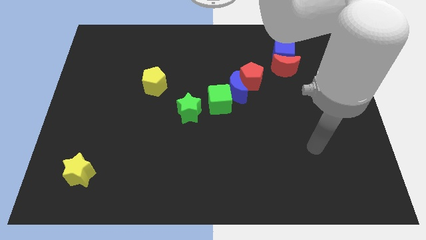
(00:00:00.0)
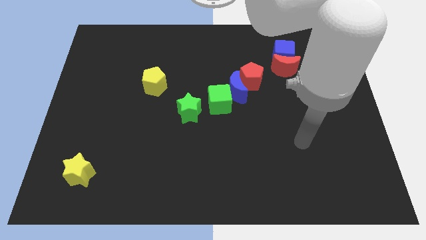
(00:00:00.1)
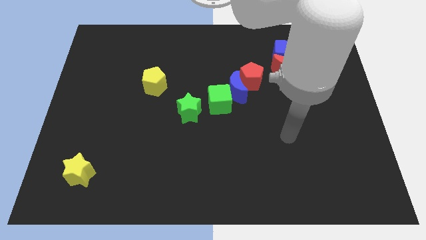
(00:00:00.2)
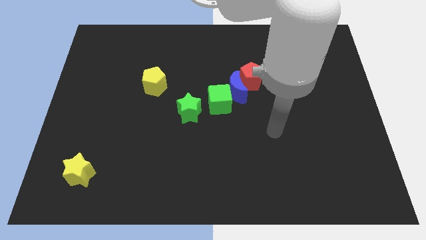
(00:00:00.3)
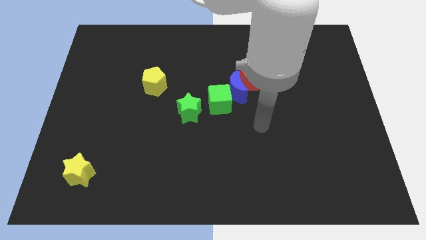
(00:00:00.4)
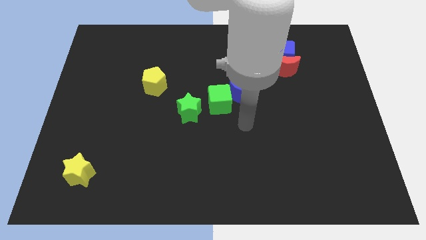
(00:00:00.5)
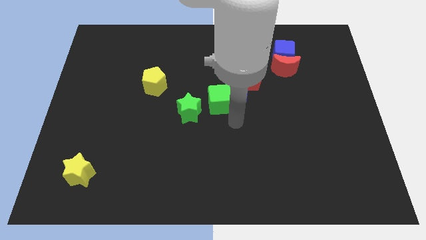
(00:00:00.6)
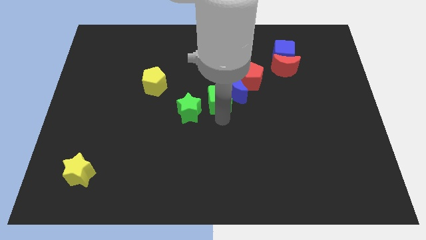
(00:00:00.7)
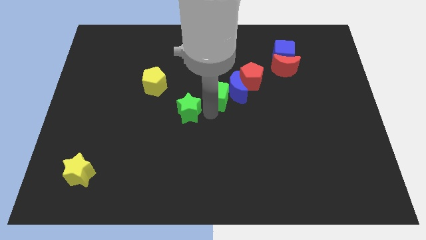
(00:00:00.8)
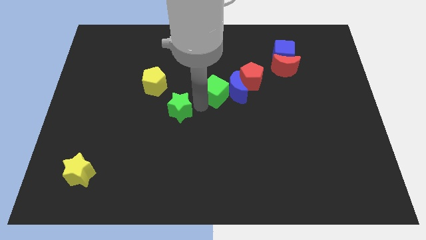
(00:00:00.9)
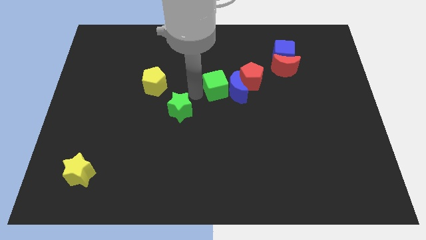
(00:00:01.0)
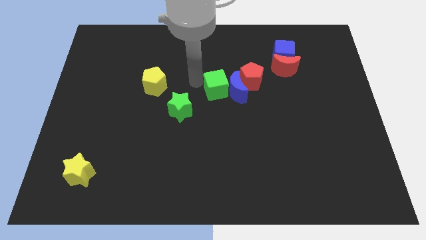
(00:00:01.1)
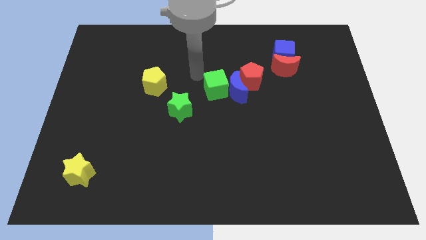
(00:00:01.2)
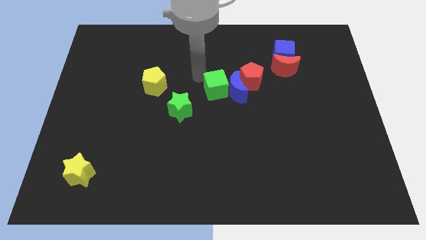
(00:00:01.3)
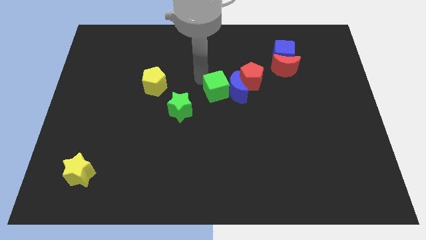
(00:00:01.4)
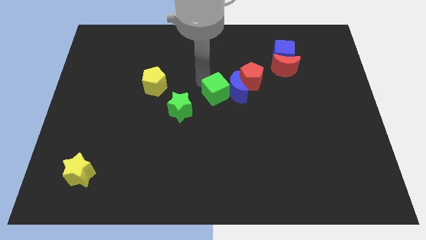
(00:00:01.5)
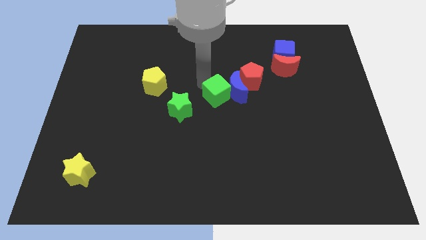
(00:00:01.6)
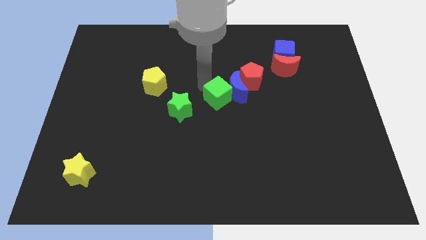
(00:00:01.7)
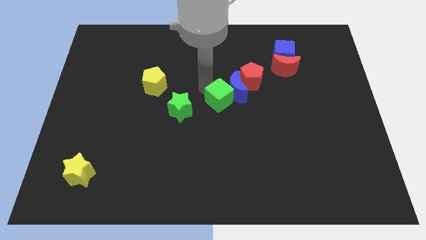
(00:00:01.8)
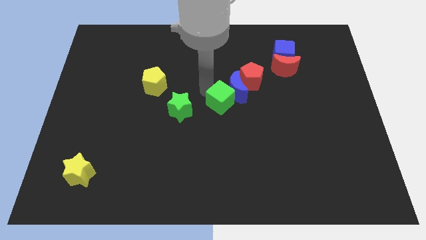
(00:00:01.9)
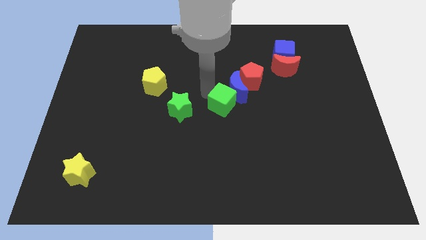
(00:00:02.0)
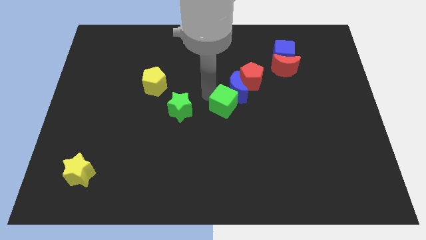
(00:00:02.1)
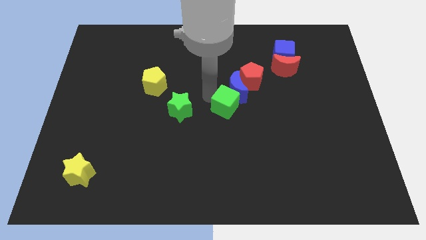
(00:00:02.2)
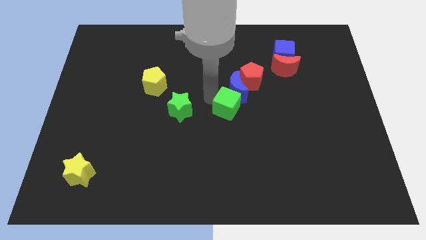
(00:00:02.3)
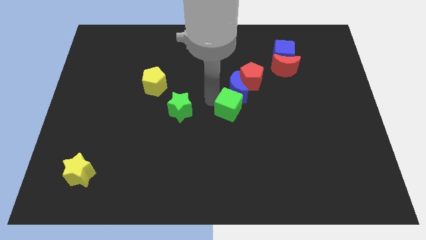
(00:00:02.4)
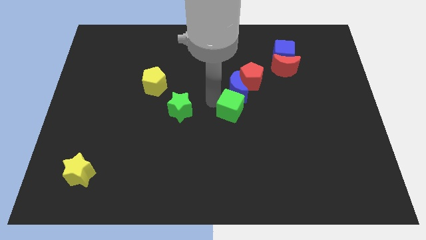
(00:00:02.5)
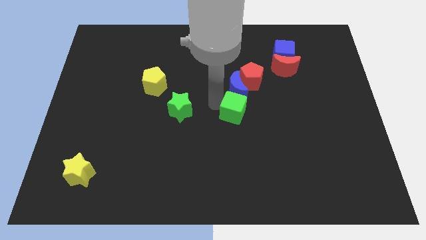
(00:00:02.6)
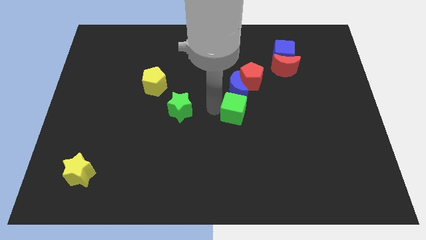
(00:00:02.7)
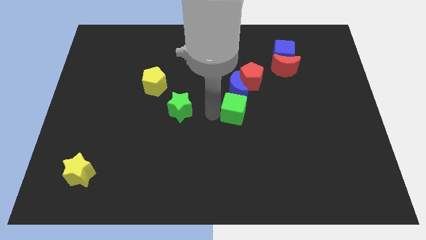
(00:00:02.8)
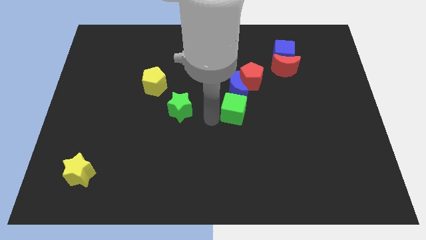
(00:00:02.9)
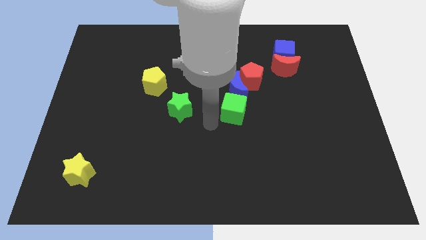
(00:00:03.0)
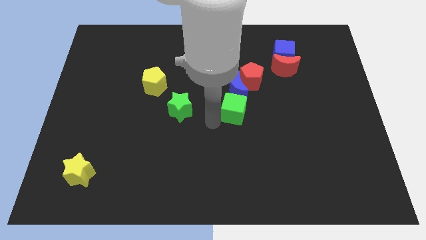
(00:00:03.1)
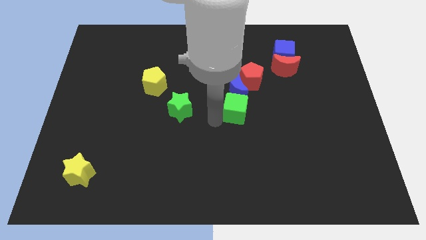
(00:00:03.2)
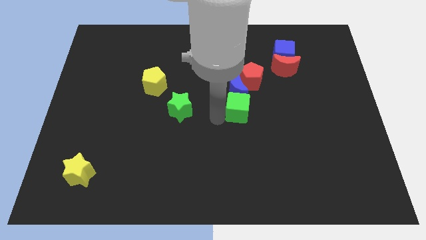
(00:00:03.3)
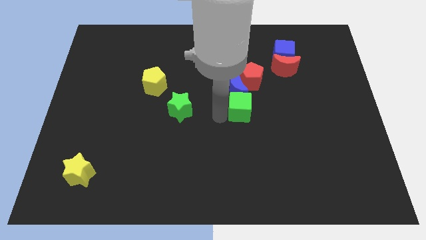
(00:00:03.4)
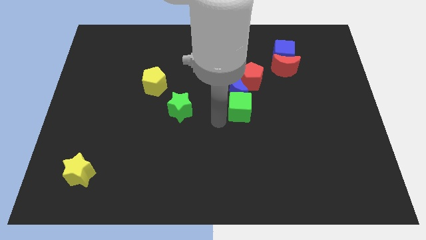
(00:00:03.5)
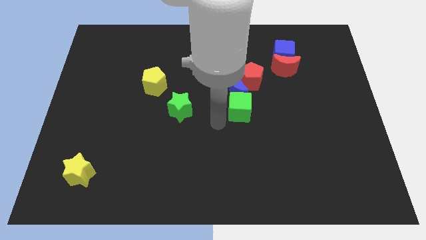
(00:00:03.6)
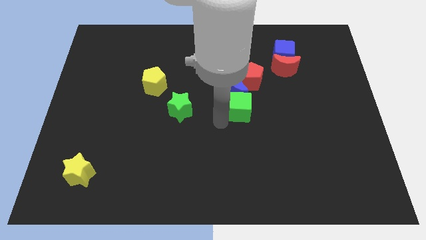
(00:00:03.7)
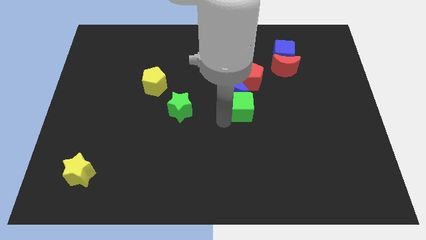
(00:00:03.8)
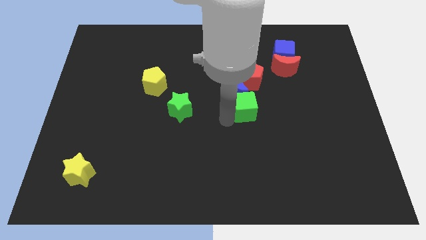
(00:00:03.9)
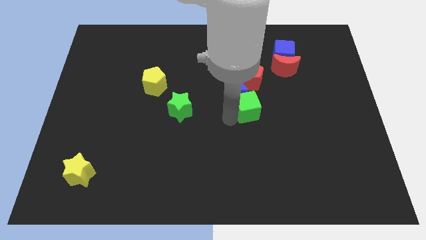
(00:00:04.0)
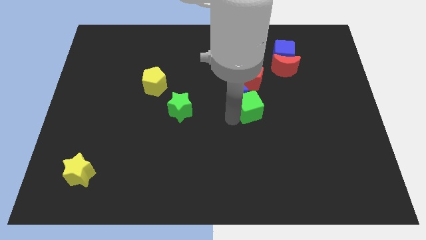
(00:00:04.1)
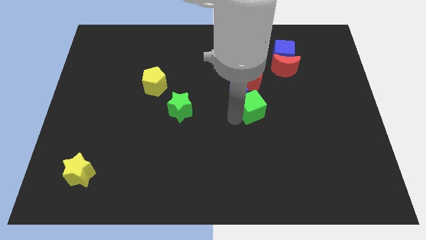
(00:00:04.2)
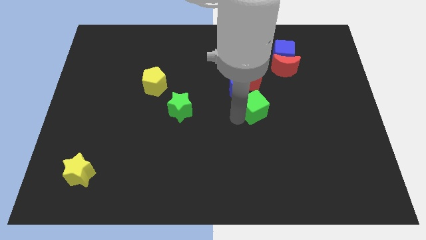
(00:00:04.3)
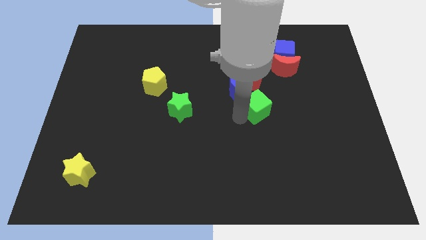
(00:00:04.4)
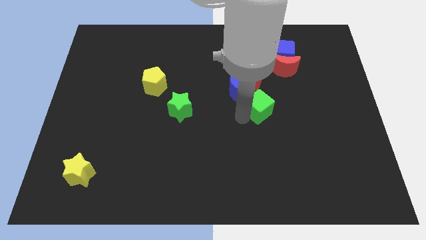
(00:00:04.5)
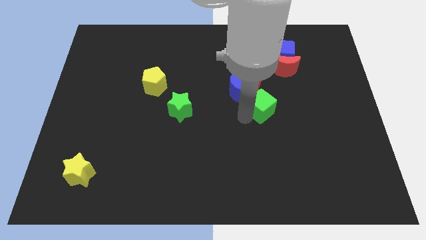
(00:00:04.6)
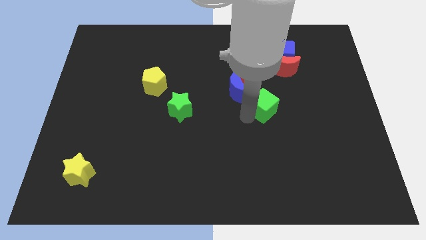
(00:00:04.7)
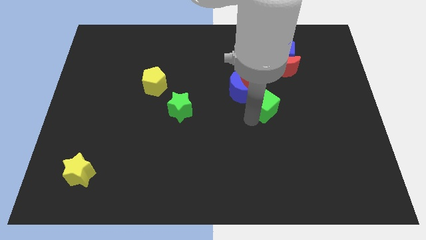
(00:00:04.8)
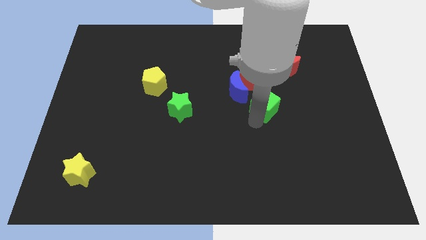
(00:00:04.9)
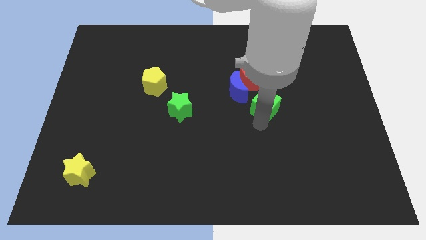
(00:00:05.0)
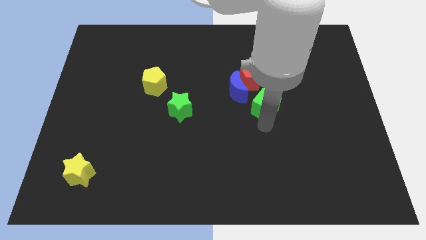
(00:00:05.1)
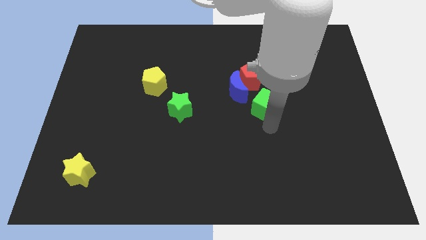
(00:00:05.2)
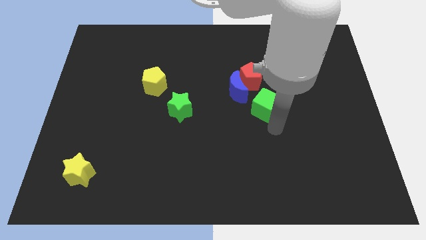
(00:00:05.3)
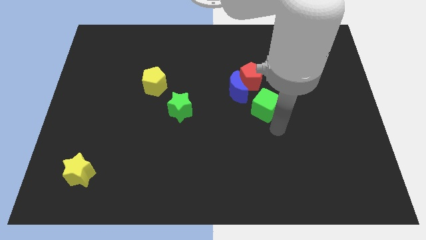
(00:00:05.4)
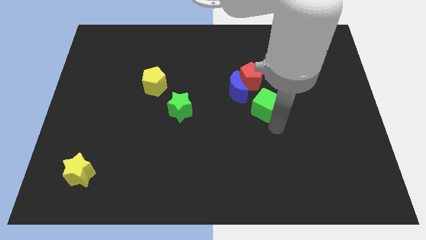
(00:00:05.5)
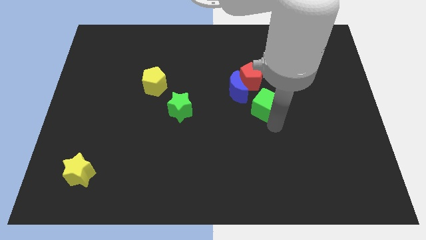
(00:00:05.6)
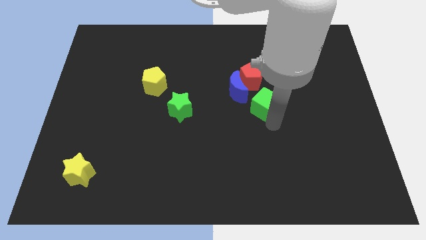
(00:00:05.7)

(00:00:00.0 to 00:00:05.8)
move the green cube right of the blue moon

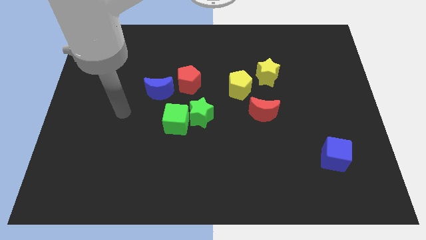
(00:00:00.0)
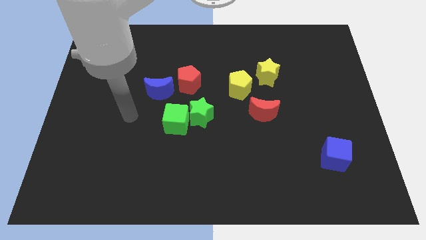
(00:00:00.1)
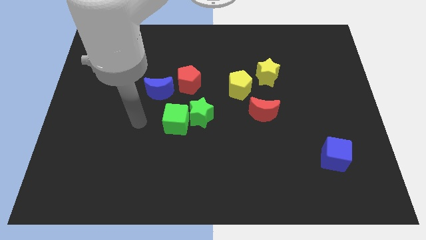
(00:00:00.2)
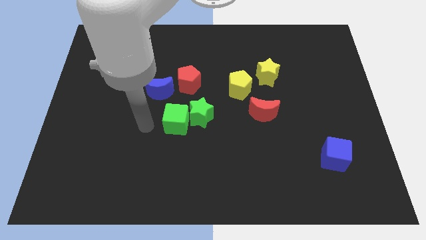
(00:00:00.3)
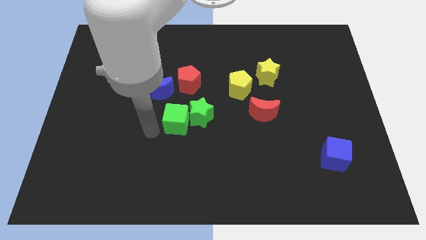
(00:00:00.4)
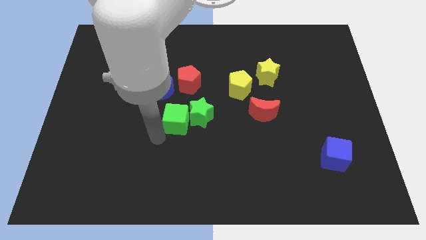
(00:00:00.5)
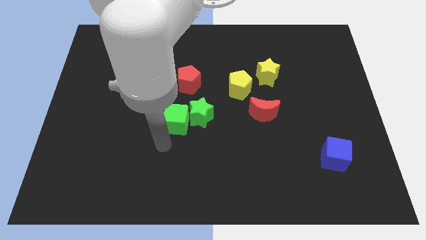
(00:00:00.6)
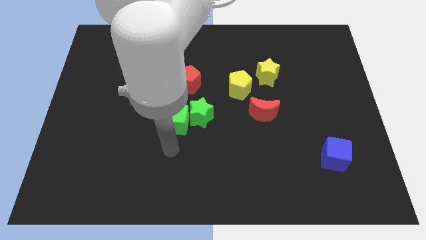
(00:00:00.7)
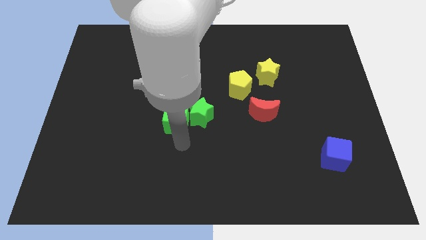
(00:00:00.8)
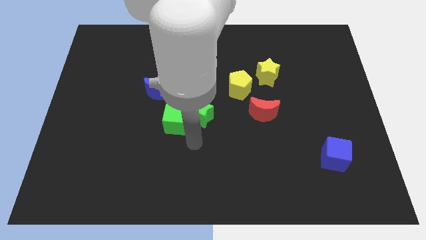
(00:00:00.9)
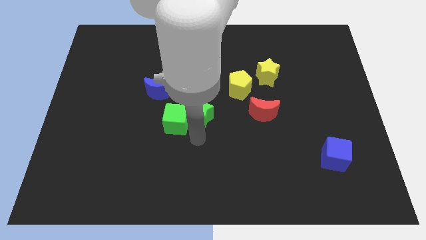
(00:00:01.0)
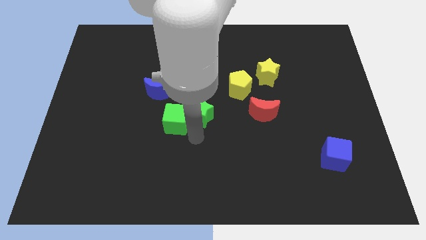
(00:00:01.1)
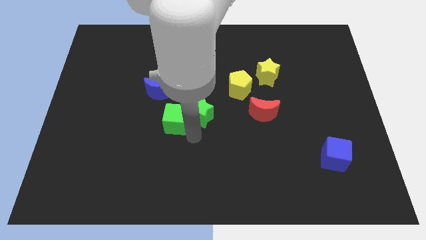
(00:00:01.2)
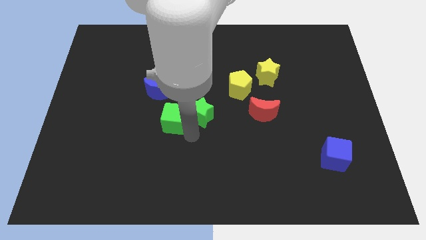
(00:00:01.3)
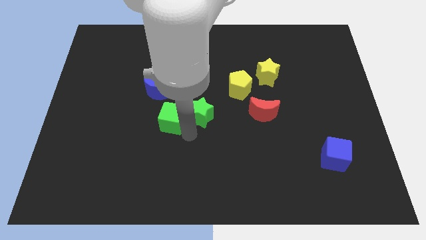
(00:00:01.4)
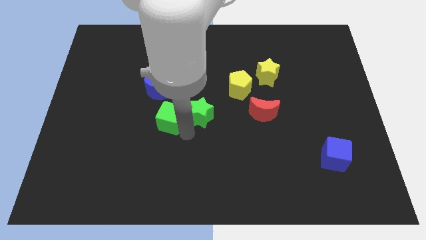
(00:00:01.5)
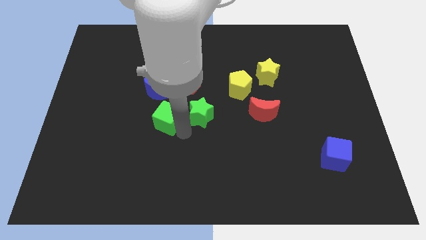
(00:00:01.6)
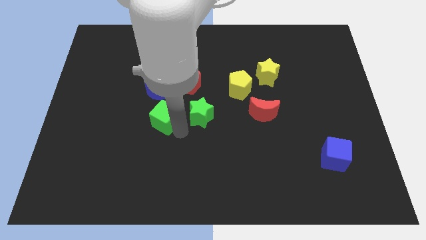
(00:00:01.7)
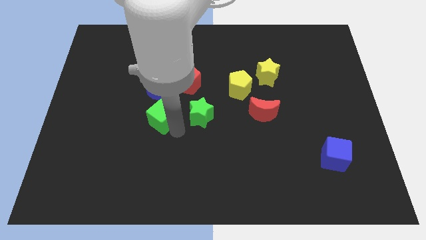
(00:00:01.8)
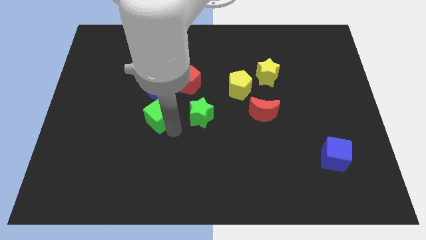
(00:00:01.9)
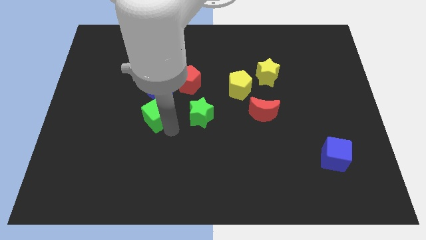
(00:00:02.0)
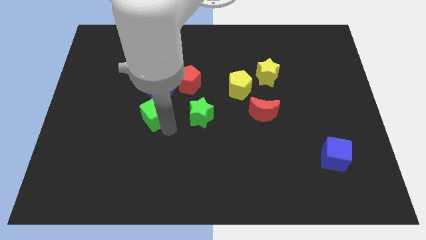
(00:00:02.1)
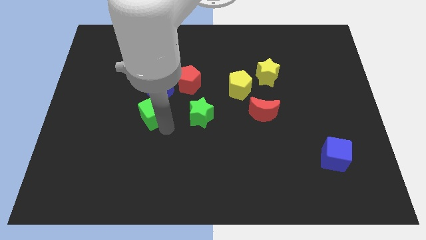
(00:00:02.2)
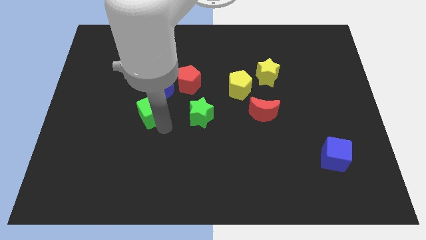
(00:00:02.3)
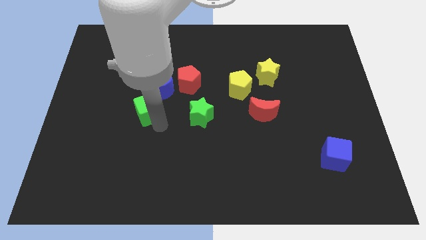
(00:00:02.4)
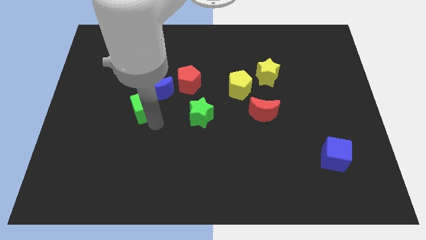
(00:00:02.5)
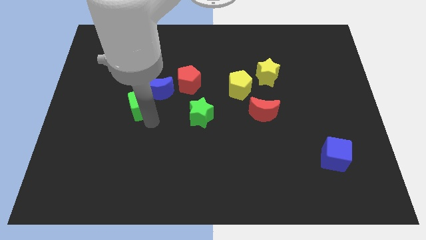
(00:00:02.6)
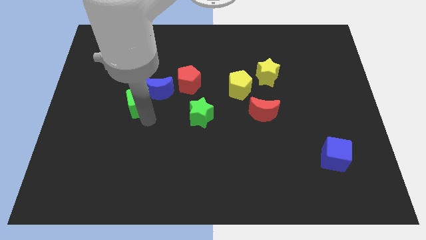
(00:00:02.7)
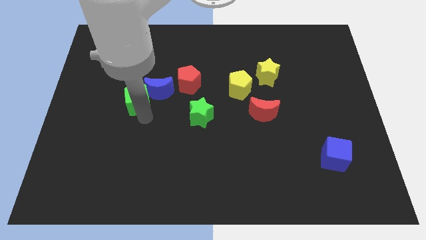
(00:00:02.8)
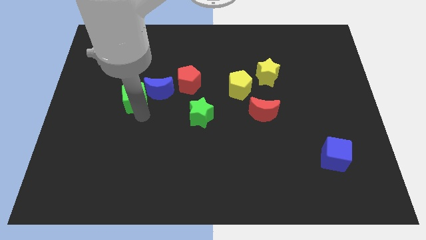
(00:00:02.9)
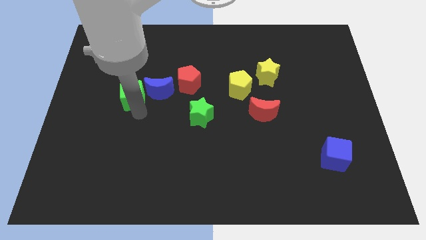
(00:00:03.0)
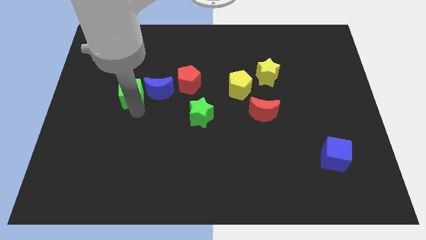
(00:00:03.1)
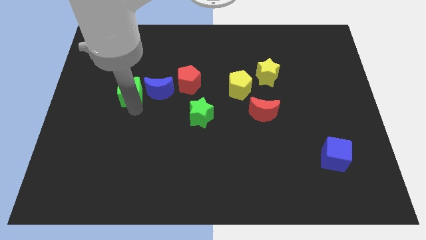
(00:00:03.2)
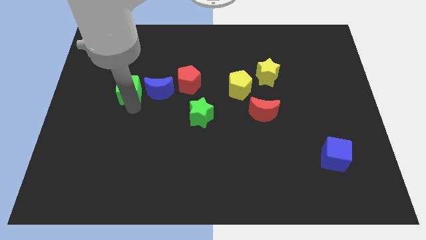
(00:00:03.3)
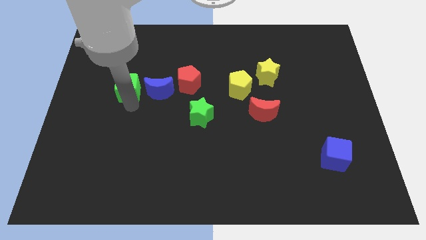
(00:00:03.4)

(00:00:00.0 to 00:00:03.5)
push the green cube to the top left side of the blue moon
